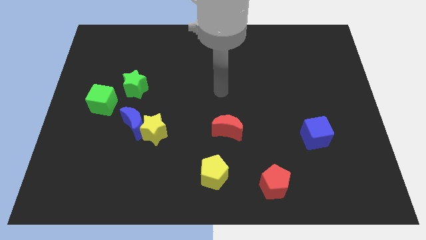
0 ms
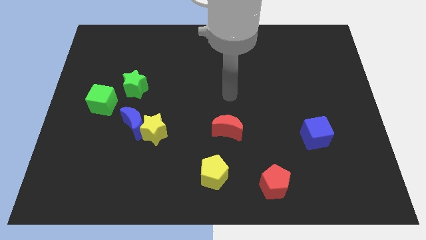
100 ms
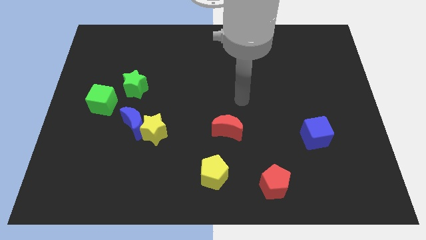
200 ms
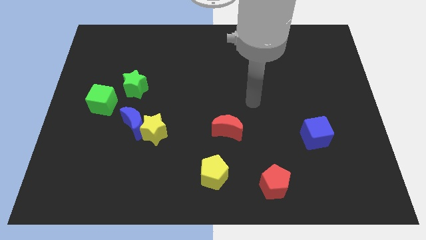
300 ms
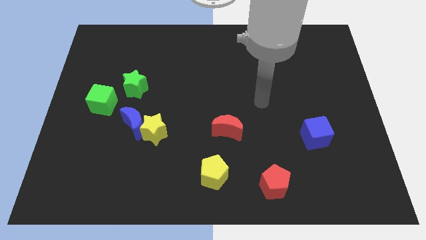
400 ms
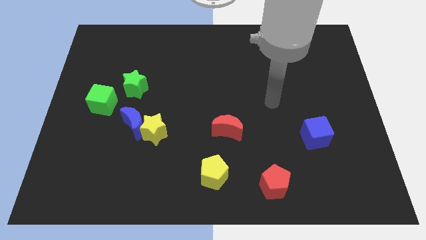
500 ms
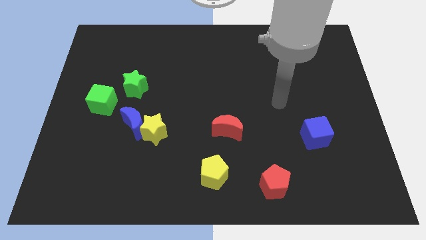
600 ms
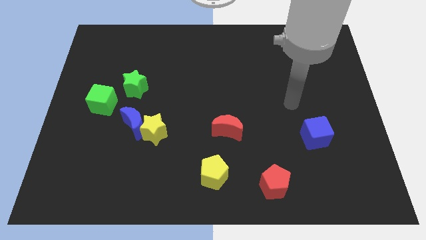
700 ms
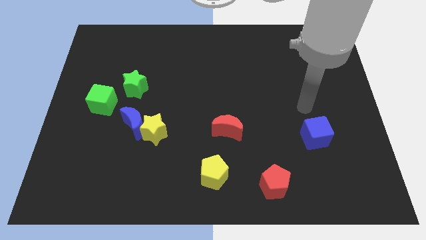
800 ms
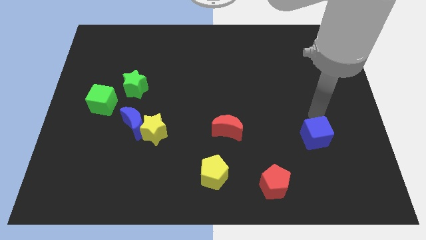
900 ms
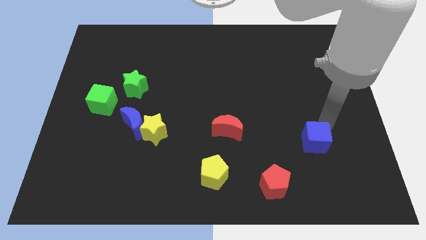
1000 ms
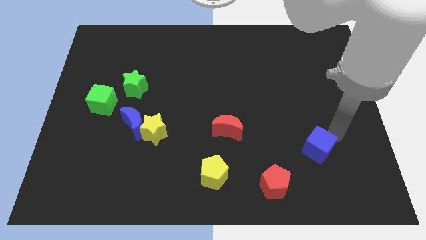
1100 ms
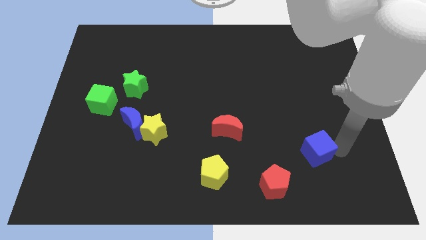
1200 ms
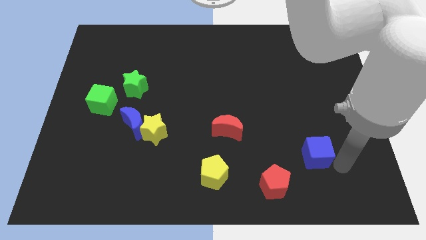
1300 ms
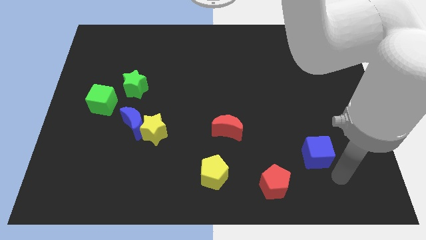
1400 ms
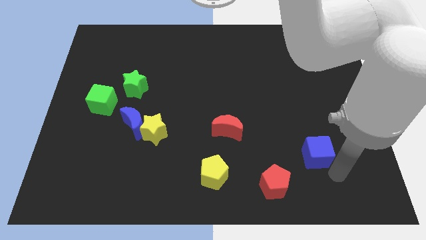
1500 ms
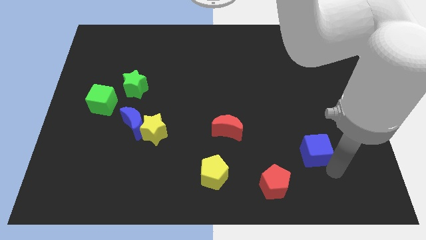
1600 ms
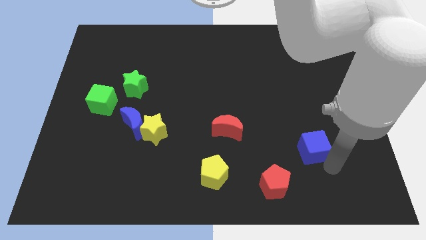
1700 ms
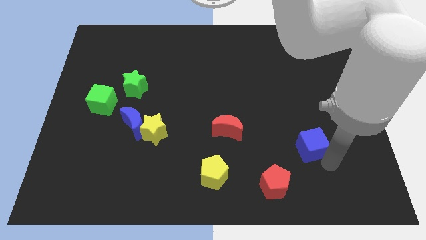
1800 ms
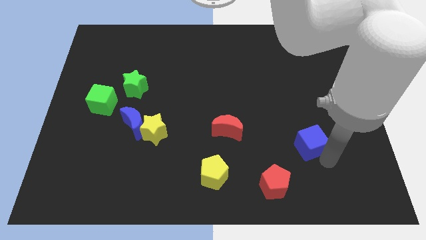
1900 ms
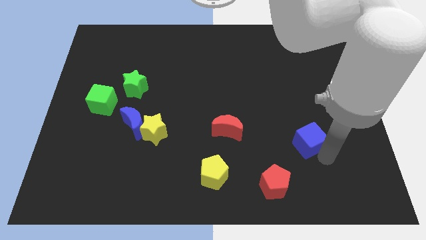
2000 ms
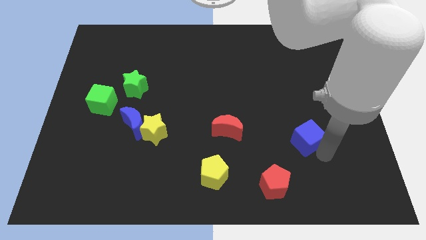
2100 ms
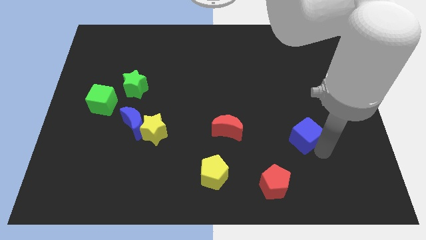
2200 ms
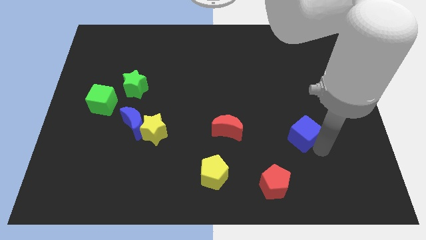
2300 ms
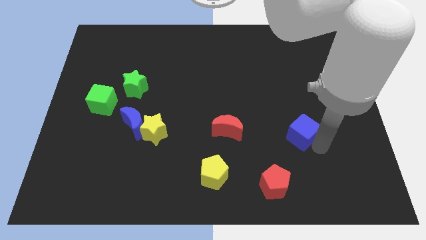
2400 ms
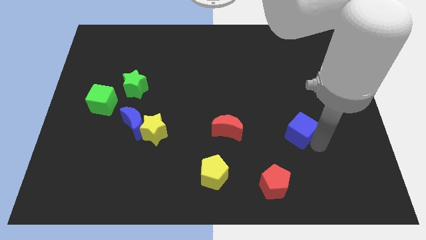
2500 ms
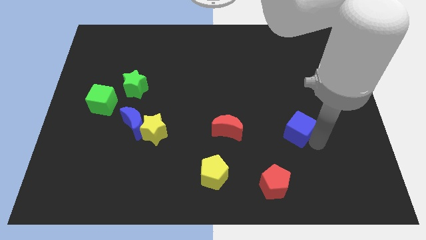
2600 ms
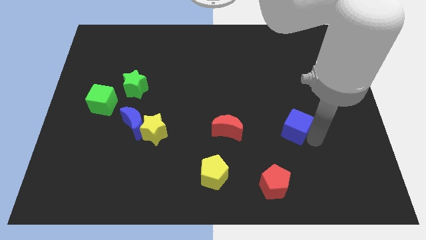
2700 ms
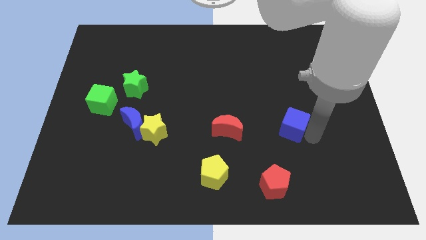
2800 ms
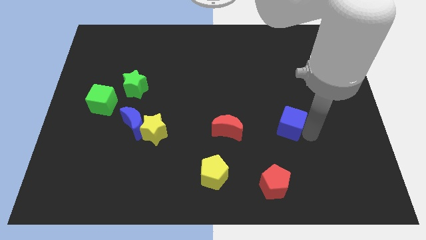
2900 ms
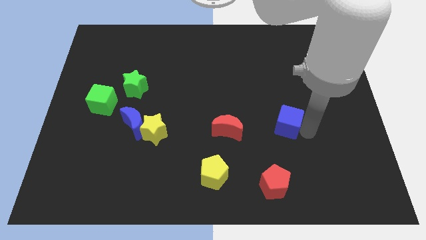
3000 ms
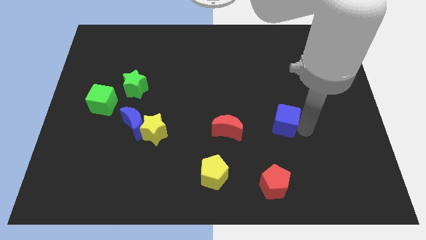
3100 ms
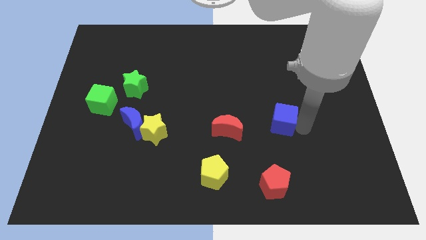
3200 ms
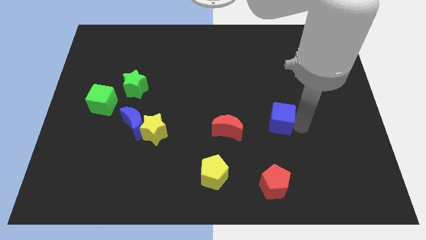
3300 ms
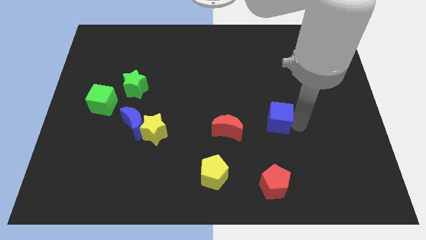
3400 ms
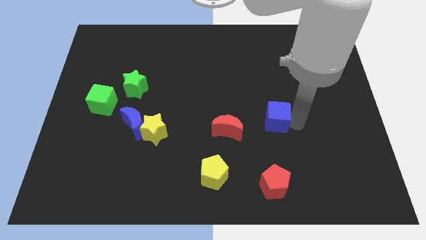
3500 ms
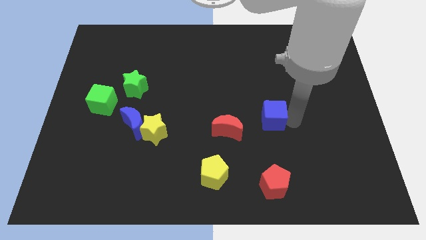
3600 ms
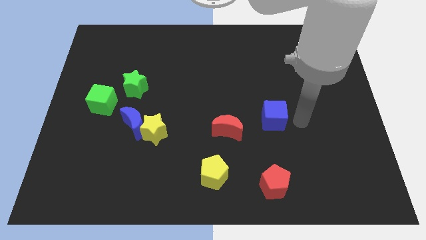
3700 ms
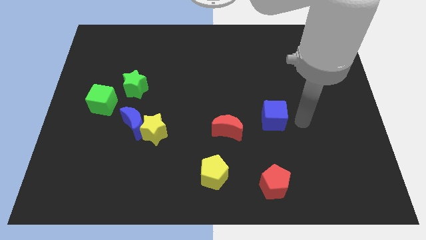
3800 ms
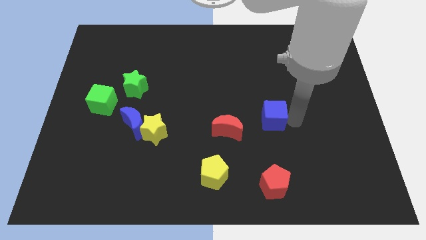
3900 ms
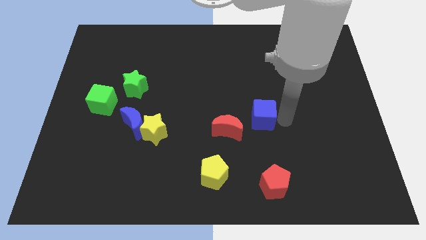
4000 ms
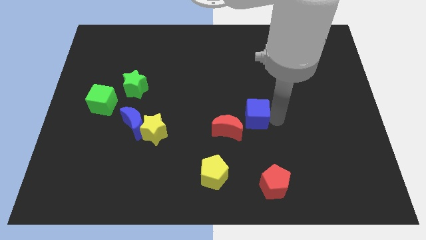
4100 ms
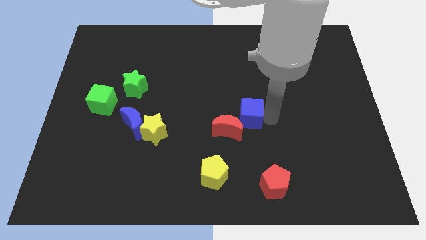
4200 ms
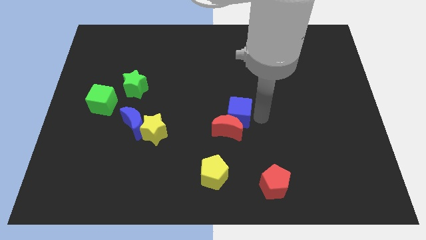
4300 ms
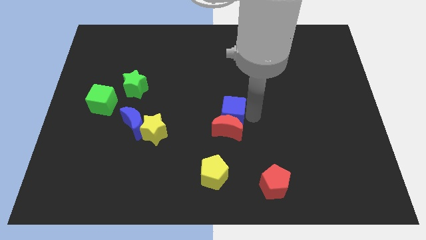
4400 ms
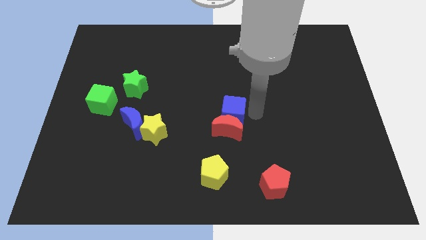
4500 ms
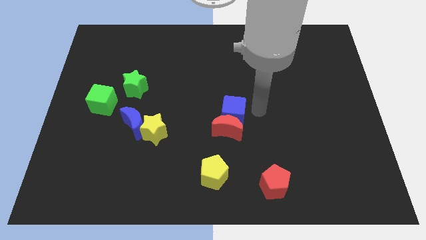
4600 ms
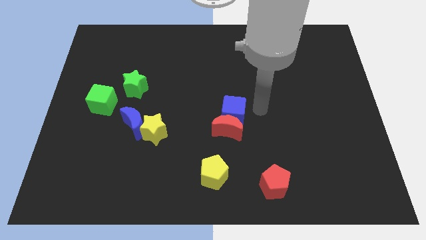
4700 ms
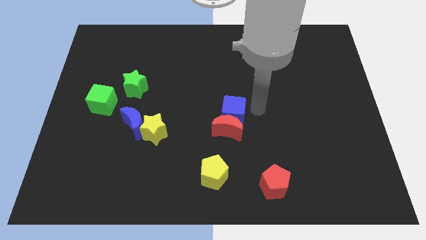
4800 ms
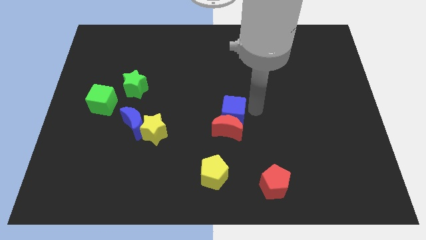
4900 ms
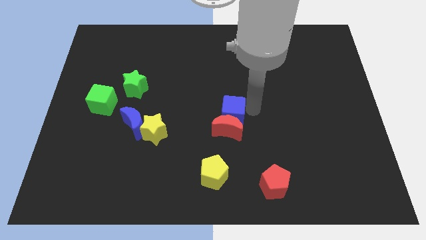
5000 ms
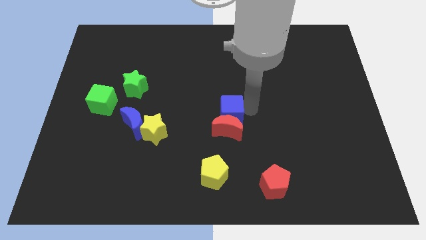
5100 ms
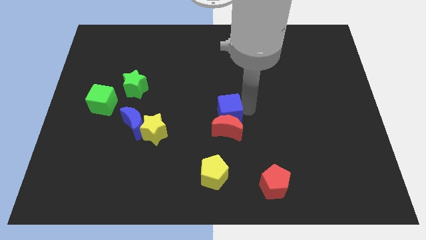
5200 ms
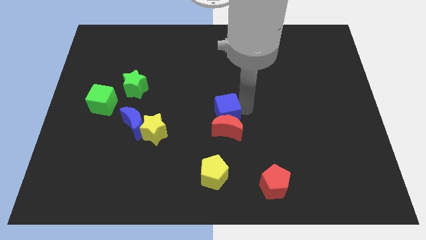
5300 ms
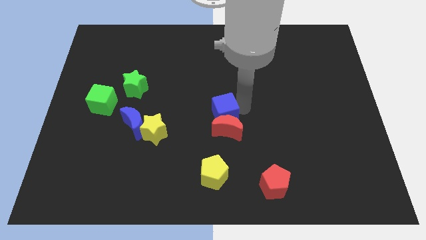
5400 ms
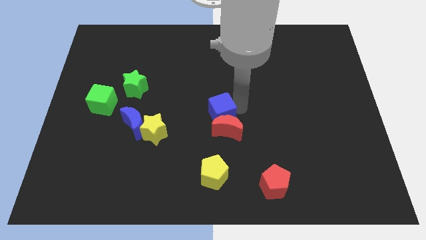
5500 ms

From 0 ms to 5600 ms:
push the blue cube to the top of the yellow pentagon

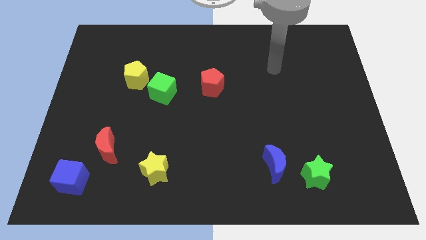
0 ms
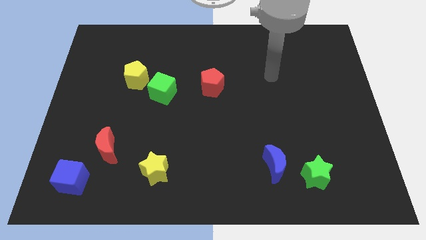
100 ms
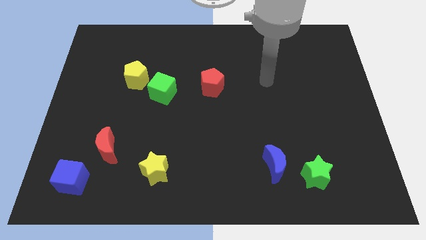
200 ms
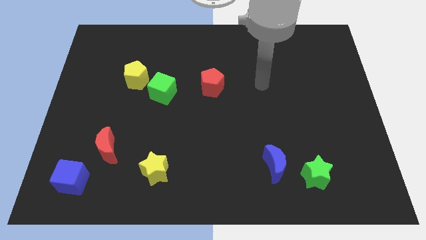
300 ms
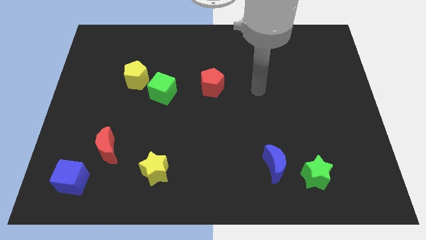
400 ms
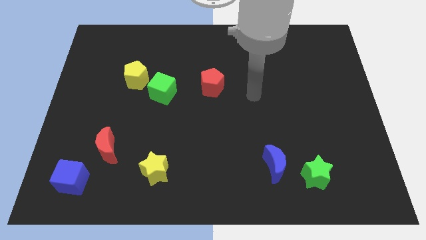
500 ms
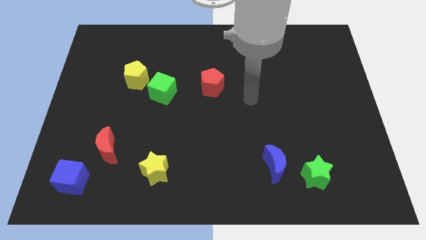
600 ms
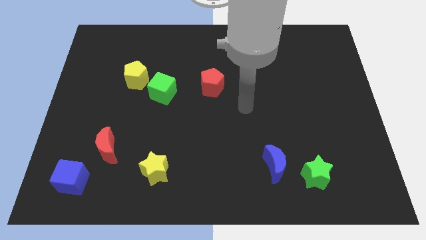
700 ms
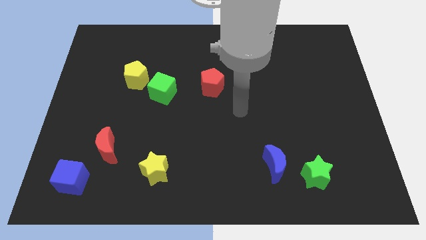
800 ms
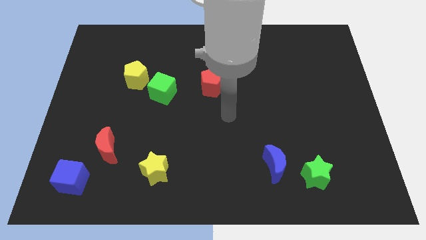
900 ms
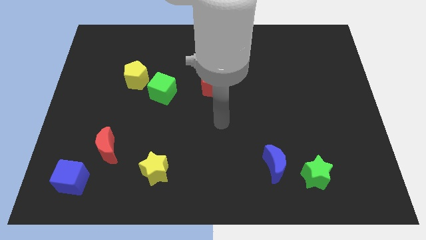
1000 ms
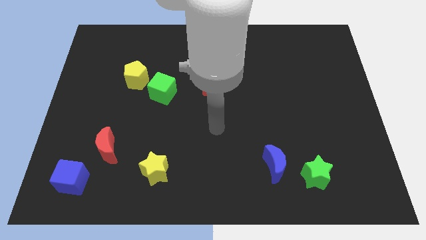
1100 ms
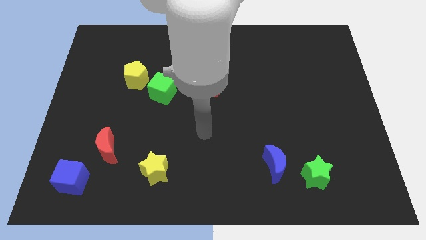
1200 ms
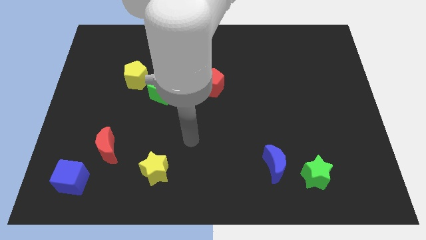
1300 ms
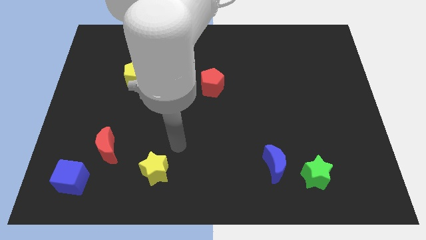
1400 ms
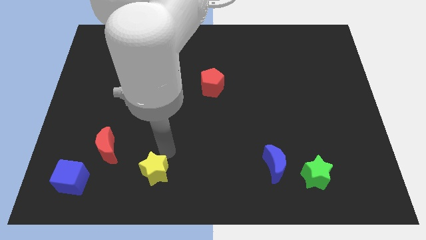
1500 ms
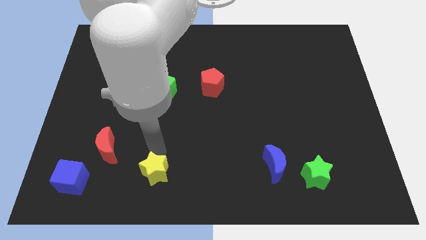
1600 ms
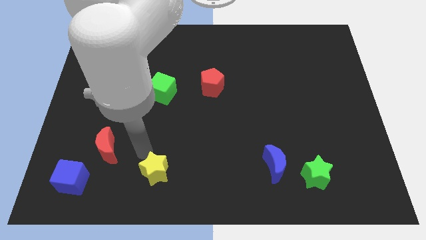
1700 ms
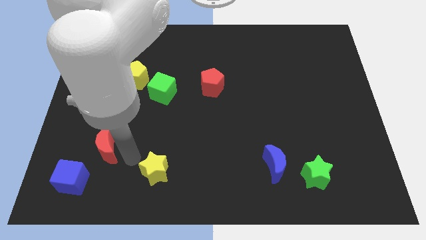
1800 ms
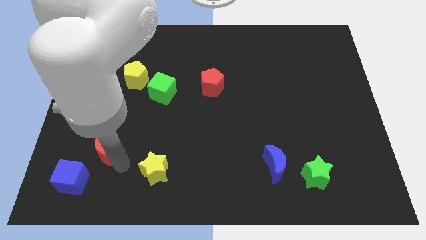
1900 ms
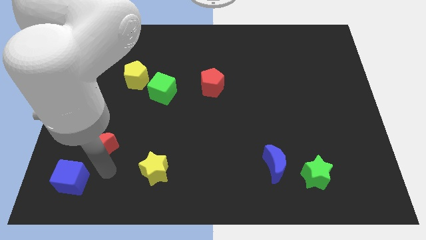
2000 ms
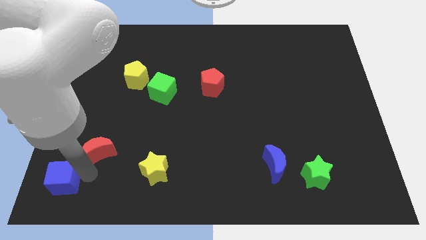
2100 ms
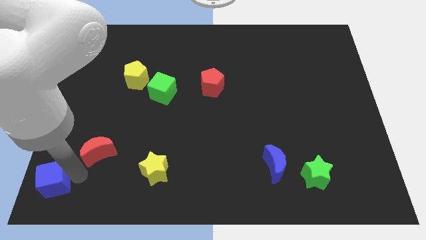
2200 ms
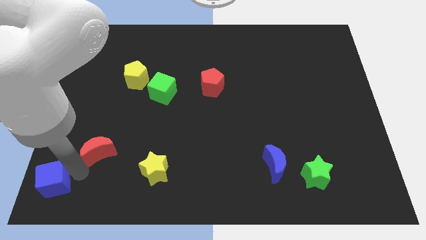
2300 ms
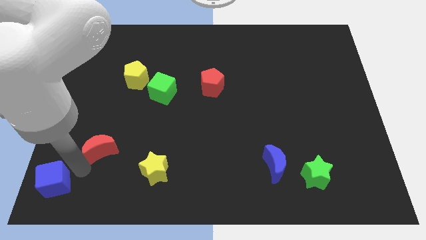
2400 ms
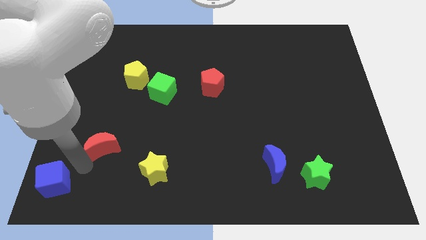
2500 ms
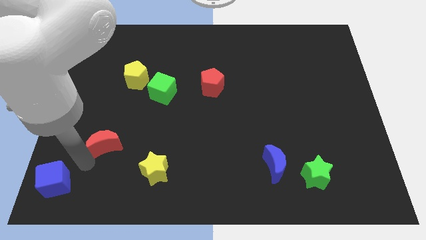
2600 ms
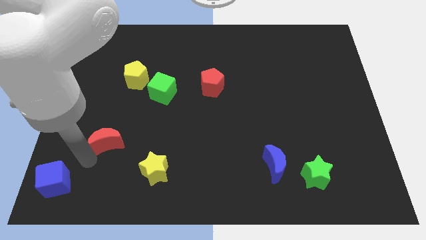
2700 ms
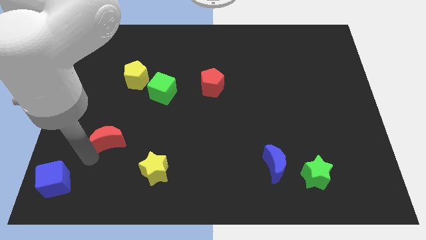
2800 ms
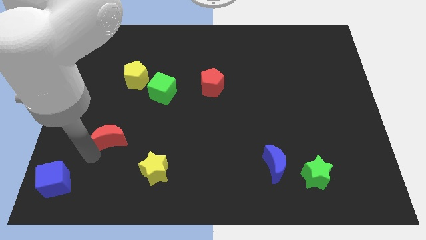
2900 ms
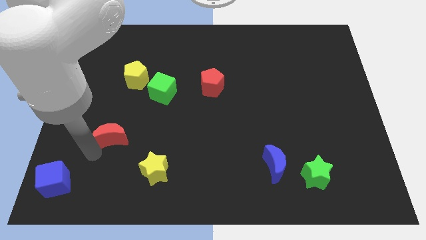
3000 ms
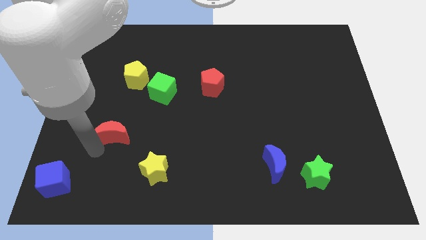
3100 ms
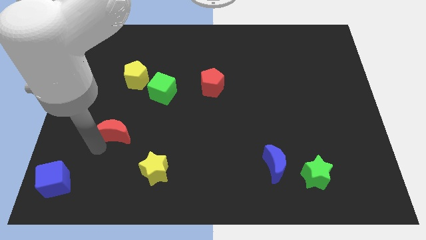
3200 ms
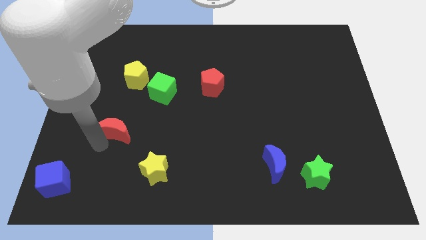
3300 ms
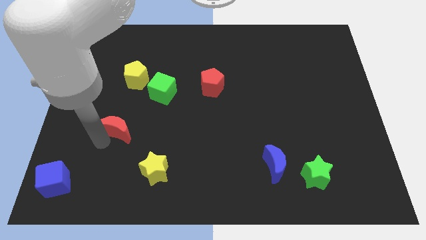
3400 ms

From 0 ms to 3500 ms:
slide the red moon to the bottom of the yellow pentagon
